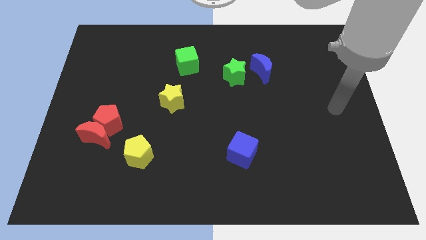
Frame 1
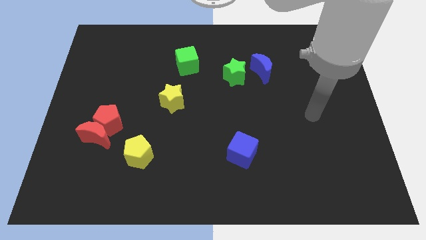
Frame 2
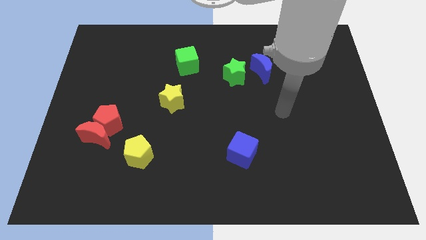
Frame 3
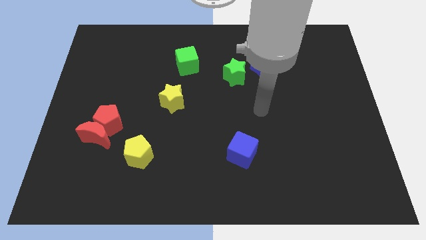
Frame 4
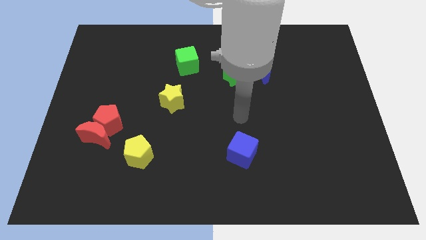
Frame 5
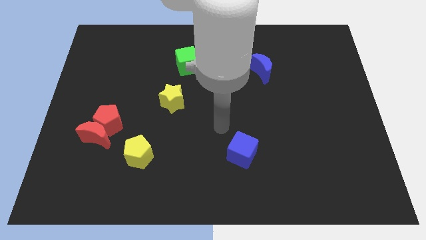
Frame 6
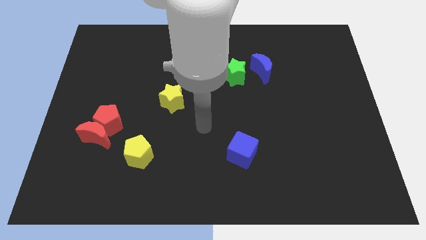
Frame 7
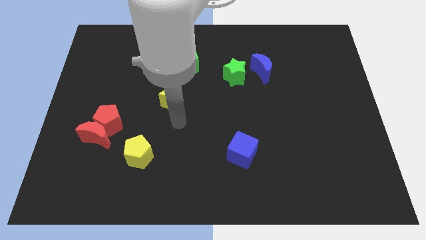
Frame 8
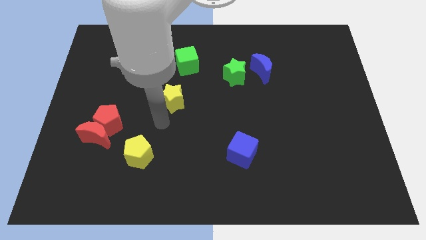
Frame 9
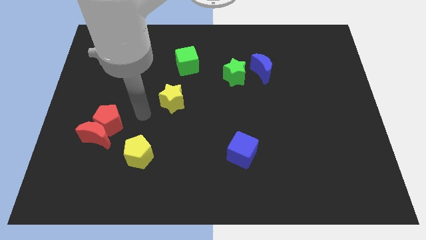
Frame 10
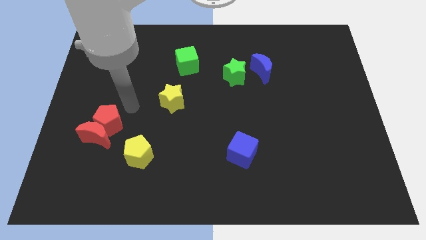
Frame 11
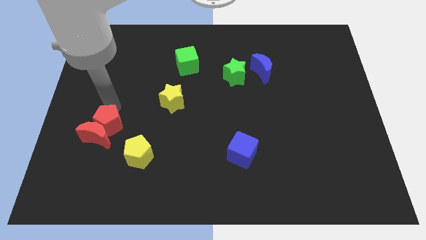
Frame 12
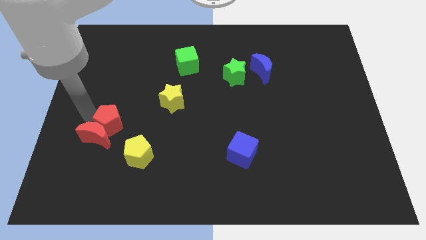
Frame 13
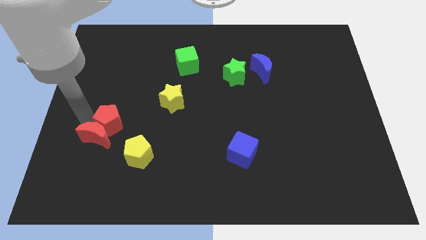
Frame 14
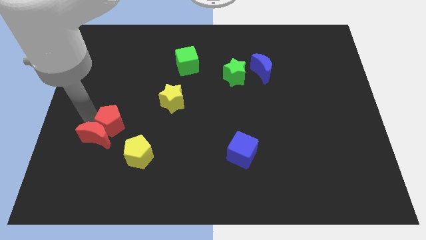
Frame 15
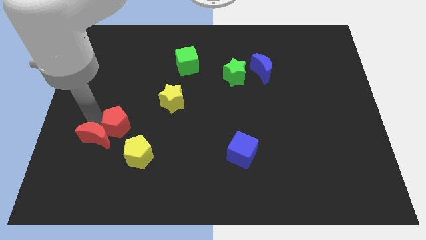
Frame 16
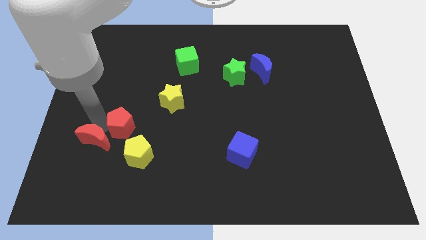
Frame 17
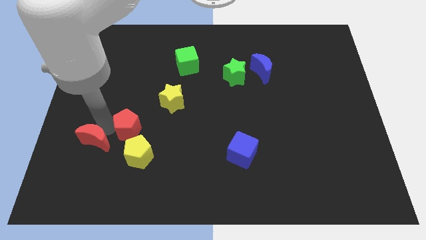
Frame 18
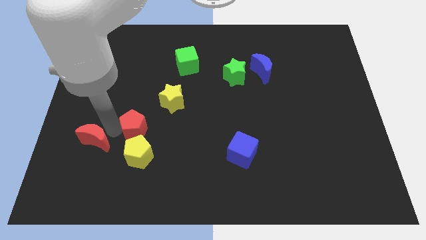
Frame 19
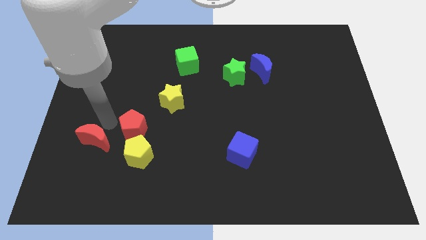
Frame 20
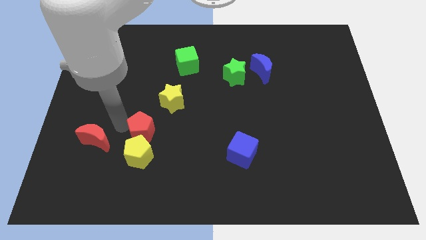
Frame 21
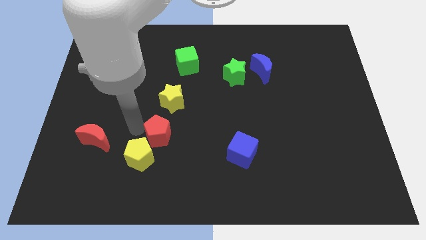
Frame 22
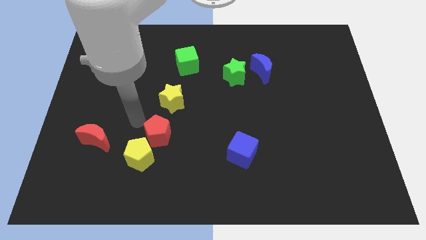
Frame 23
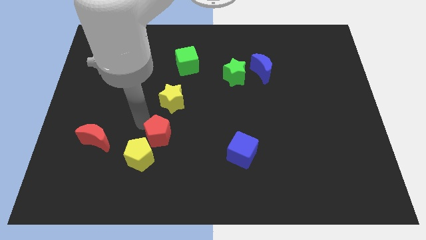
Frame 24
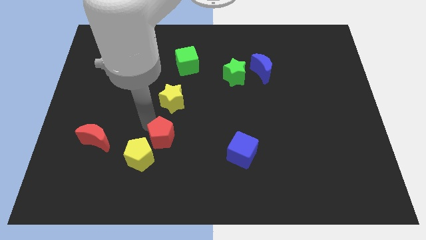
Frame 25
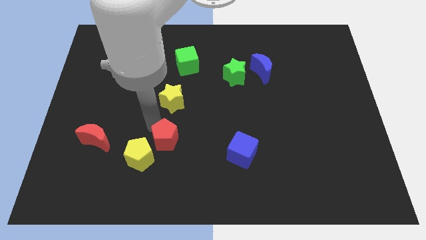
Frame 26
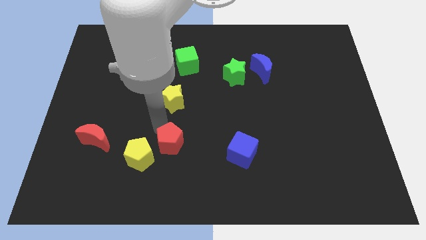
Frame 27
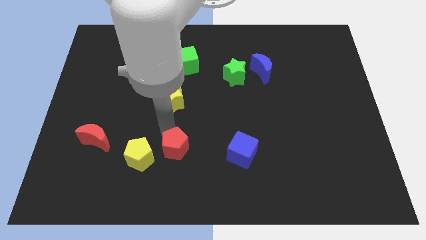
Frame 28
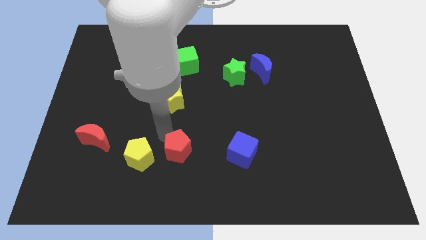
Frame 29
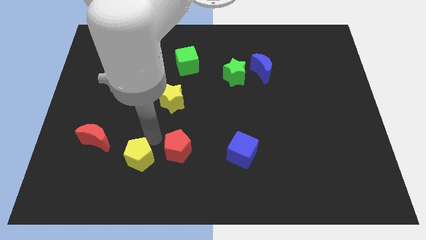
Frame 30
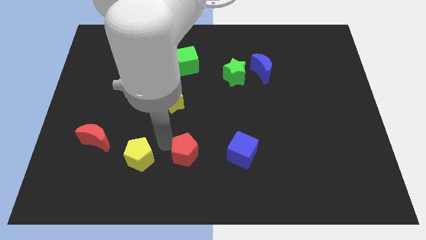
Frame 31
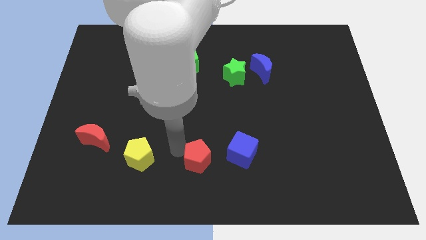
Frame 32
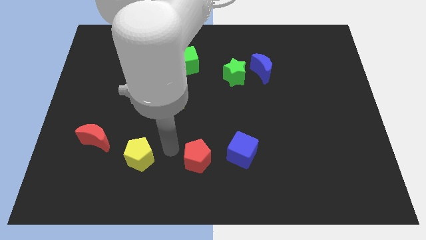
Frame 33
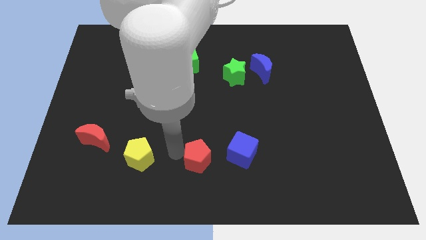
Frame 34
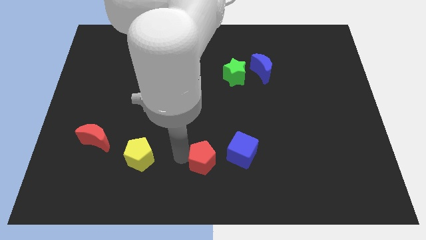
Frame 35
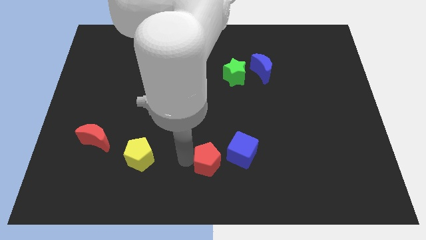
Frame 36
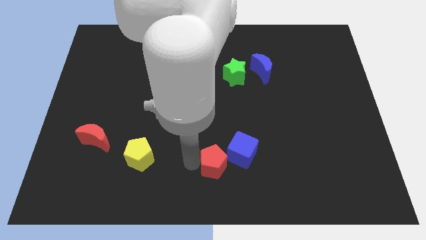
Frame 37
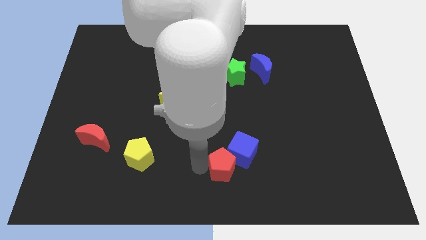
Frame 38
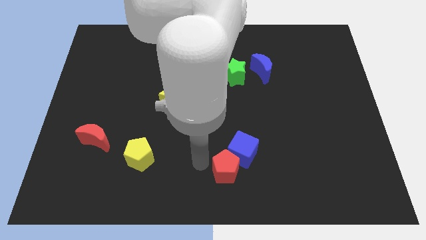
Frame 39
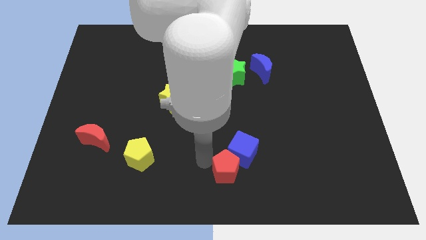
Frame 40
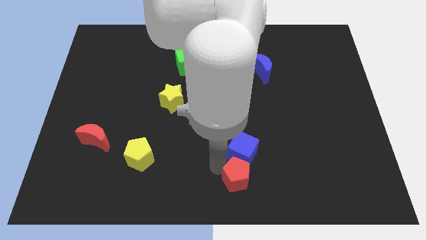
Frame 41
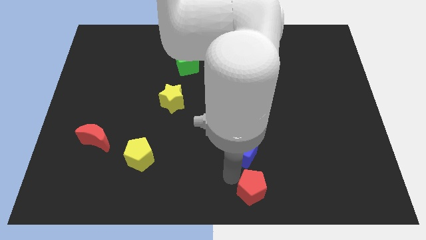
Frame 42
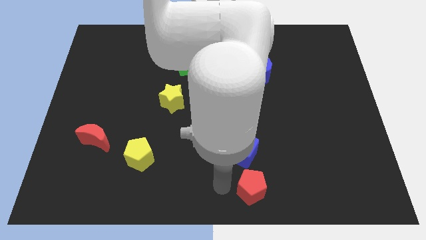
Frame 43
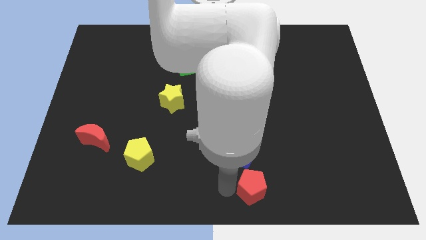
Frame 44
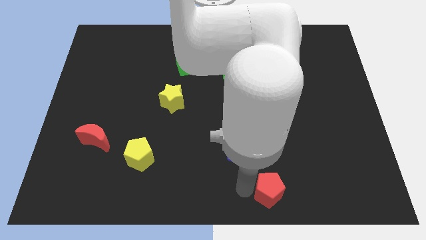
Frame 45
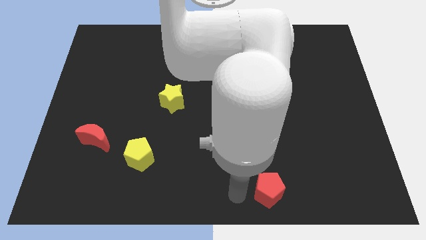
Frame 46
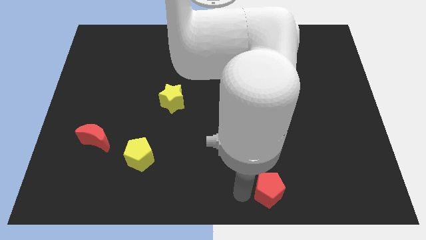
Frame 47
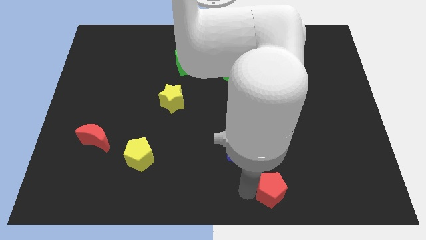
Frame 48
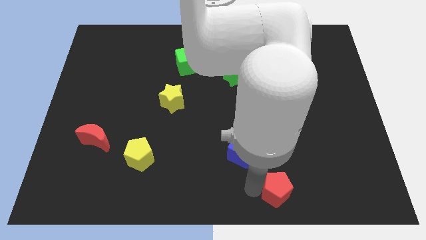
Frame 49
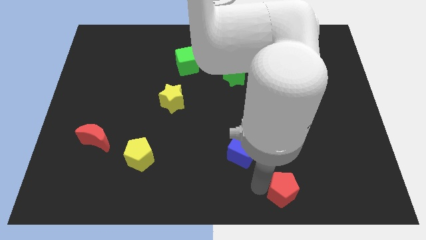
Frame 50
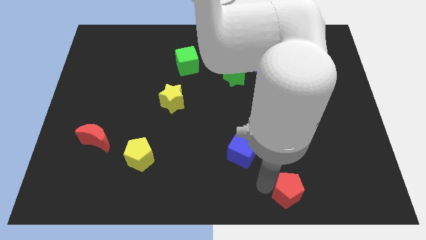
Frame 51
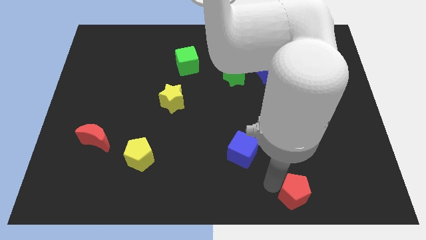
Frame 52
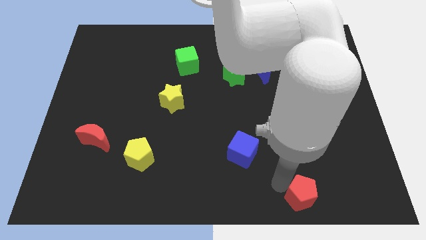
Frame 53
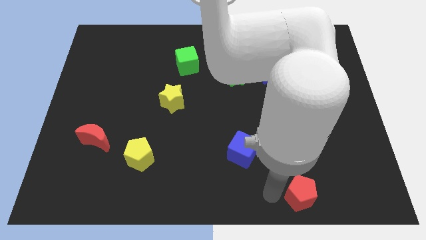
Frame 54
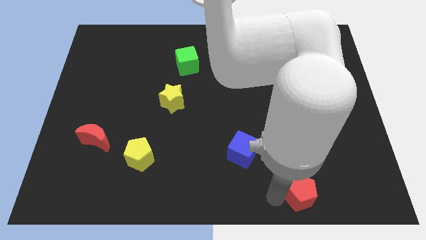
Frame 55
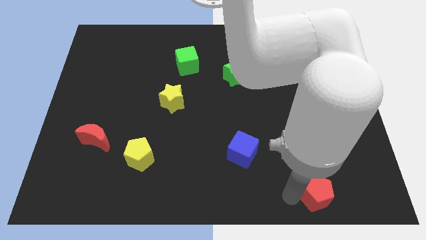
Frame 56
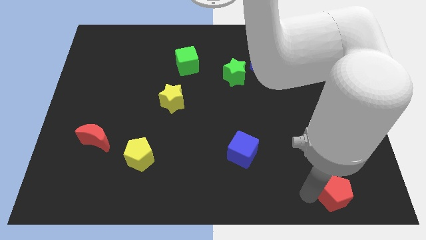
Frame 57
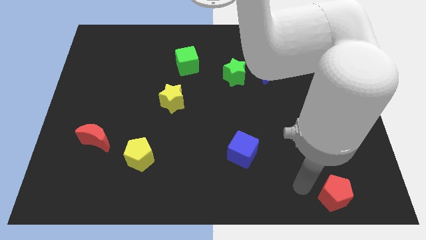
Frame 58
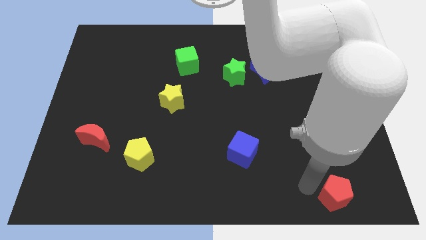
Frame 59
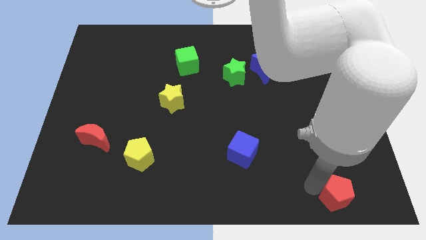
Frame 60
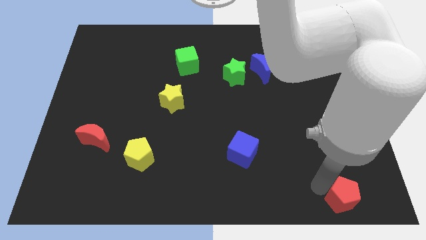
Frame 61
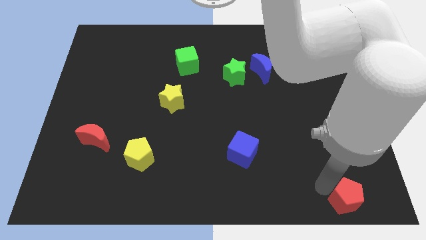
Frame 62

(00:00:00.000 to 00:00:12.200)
put the red pentagon to the lower right corner
